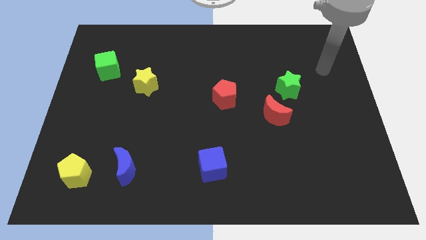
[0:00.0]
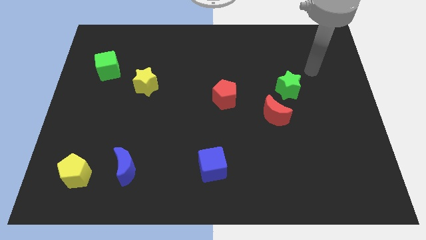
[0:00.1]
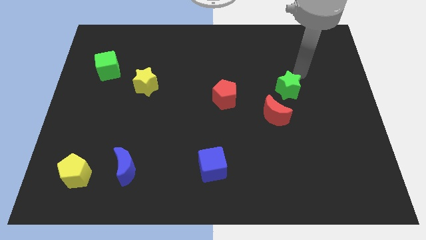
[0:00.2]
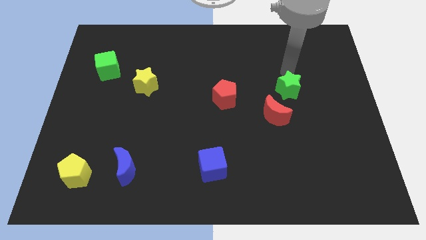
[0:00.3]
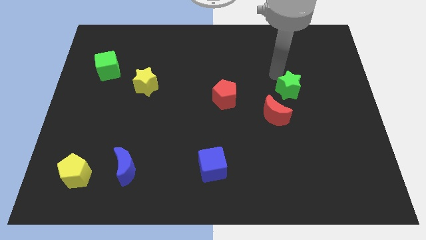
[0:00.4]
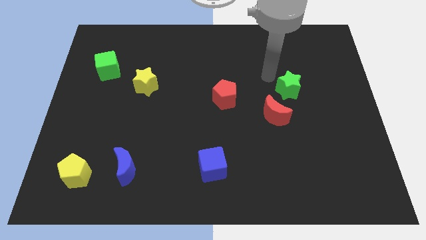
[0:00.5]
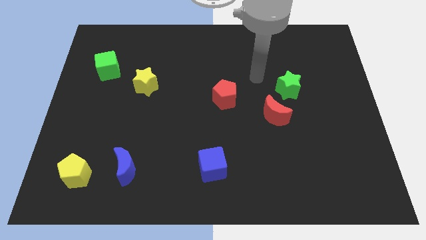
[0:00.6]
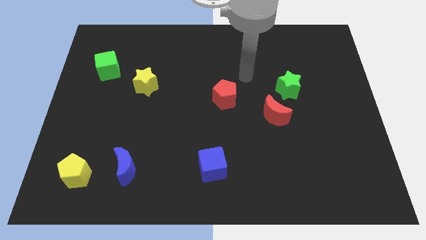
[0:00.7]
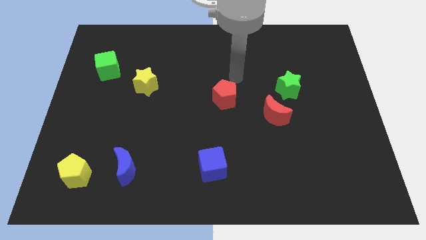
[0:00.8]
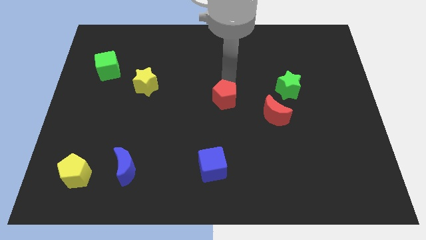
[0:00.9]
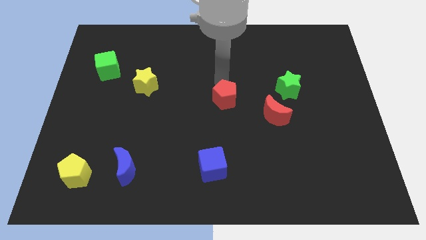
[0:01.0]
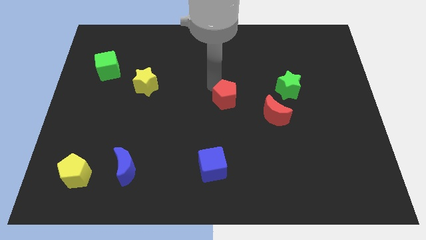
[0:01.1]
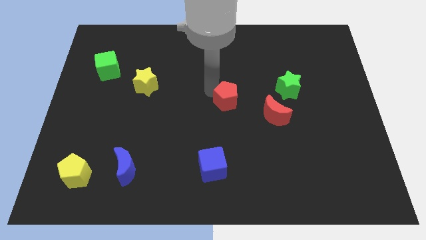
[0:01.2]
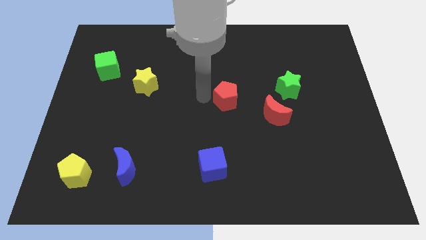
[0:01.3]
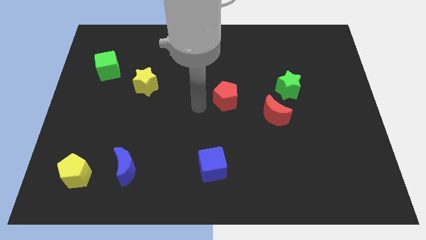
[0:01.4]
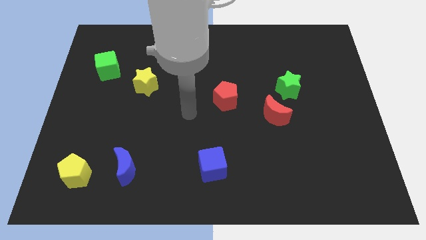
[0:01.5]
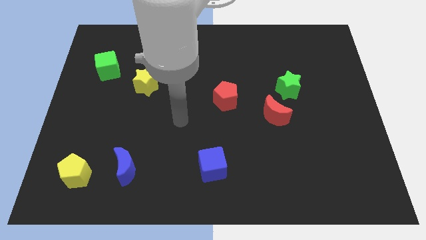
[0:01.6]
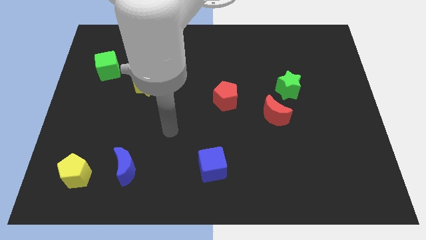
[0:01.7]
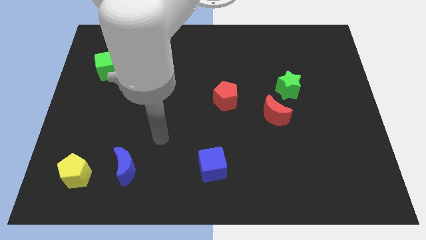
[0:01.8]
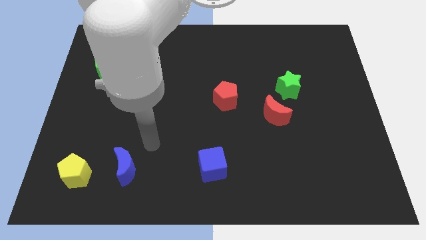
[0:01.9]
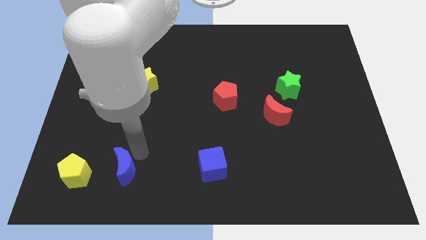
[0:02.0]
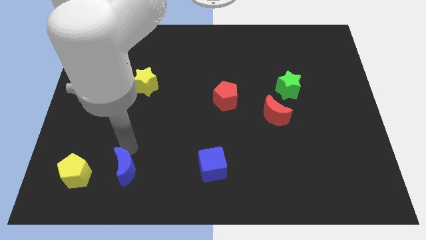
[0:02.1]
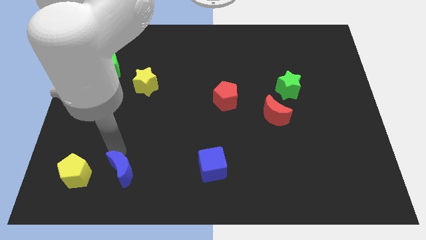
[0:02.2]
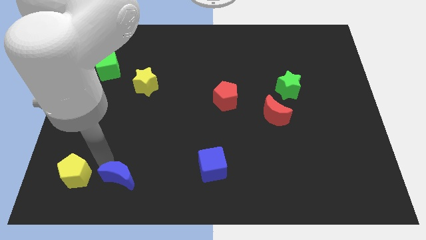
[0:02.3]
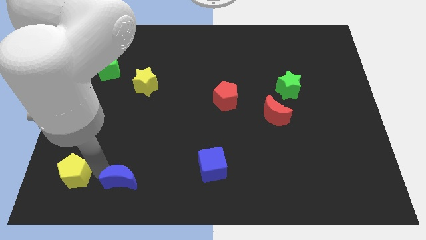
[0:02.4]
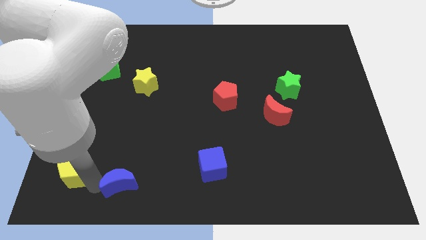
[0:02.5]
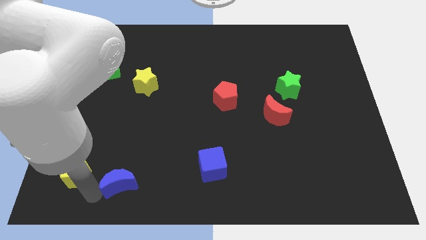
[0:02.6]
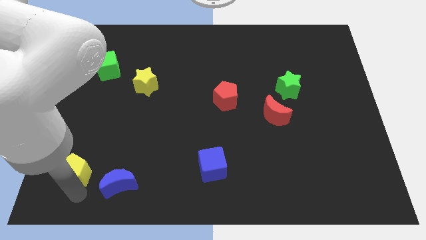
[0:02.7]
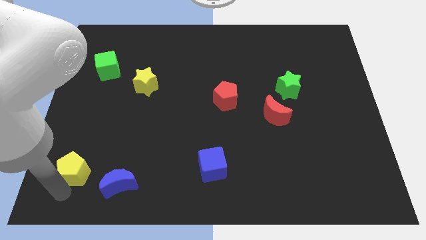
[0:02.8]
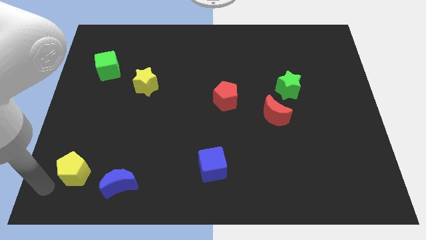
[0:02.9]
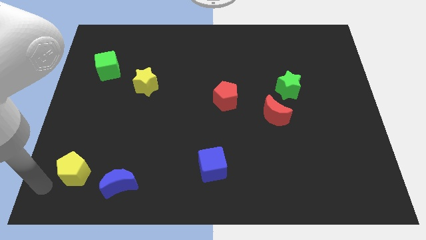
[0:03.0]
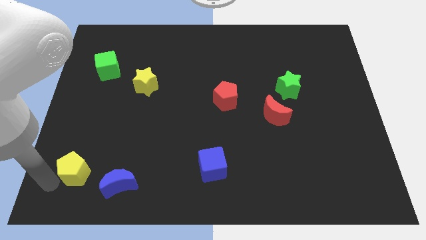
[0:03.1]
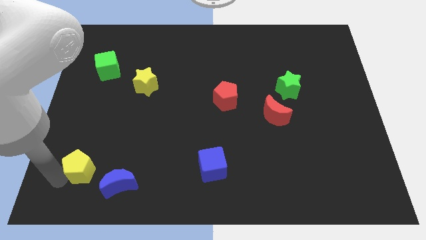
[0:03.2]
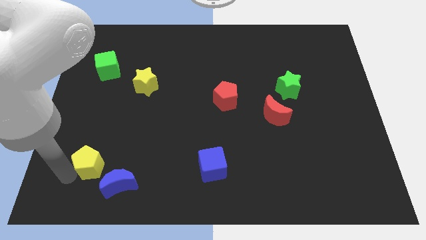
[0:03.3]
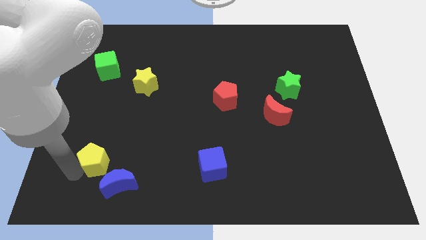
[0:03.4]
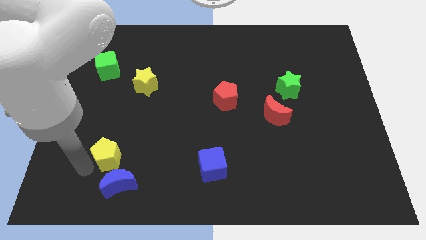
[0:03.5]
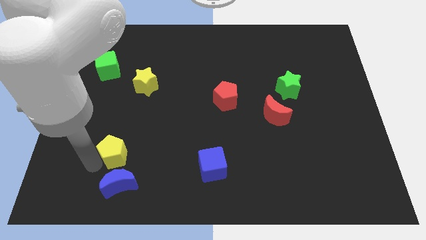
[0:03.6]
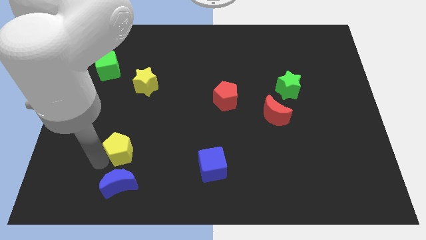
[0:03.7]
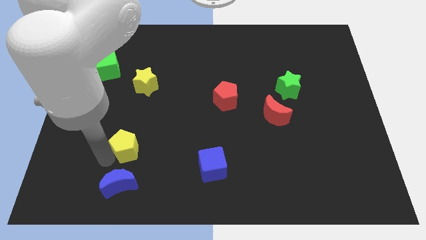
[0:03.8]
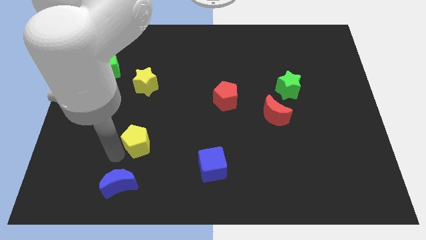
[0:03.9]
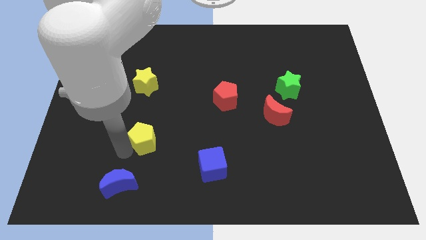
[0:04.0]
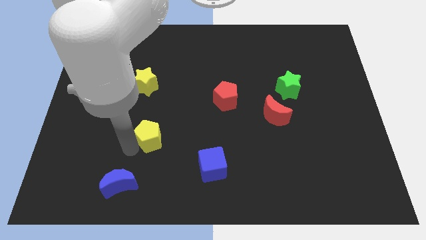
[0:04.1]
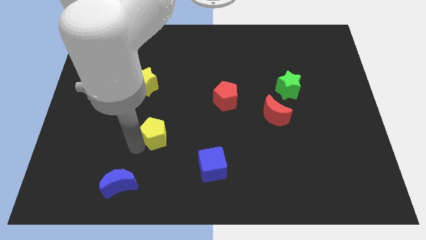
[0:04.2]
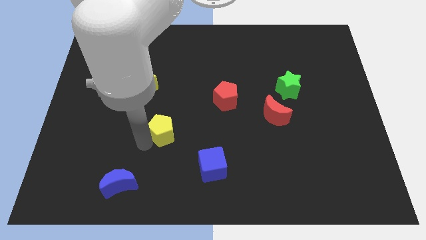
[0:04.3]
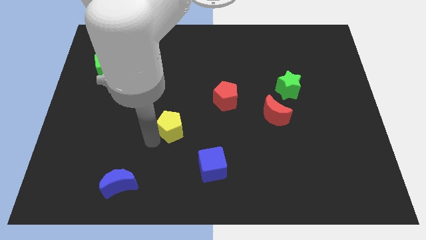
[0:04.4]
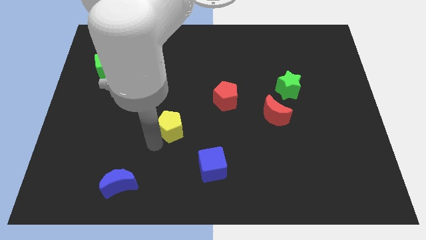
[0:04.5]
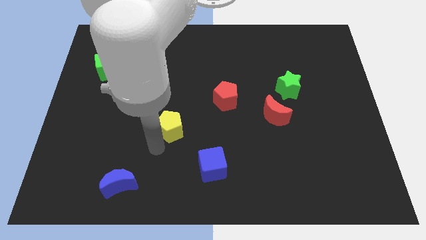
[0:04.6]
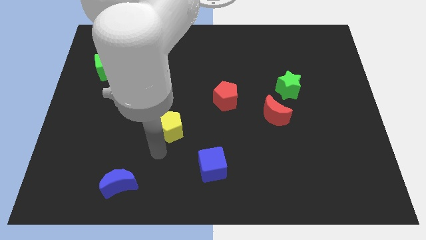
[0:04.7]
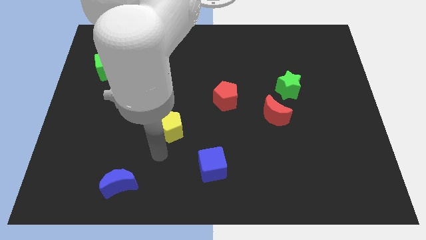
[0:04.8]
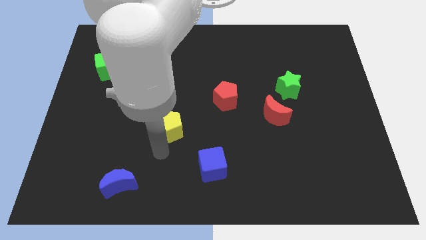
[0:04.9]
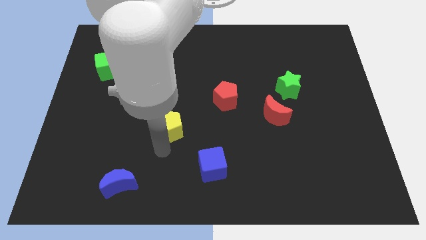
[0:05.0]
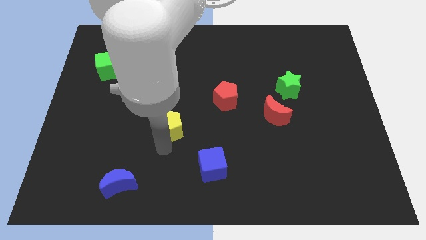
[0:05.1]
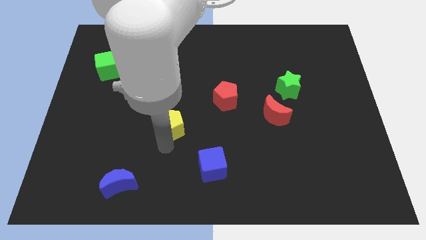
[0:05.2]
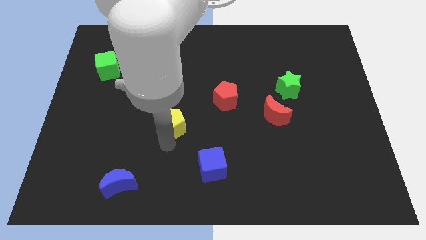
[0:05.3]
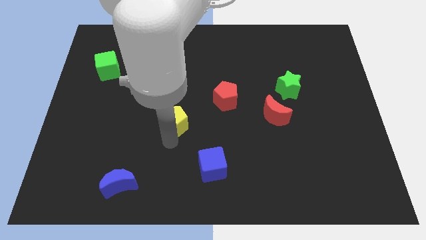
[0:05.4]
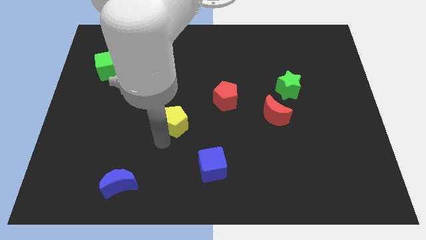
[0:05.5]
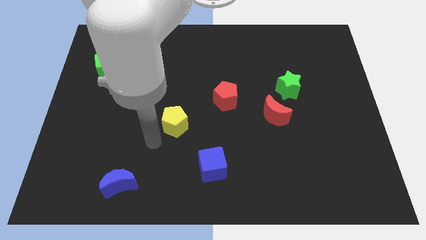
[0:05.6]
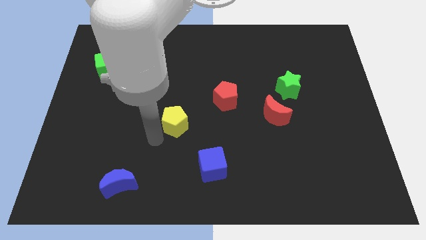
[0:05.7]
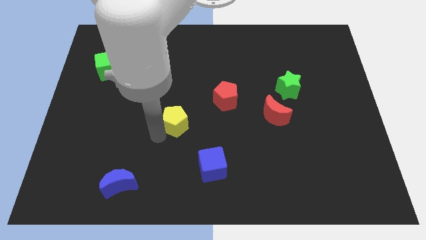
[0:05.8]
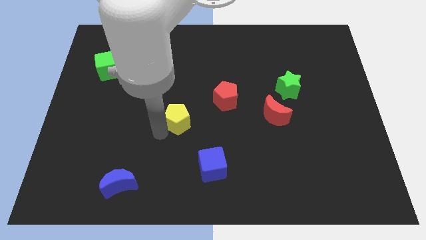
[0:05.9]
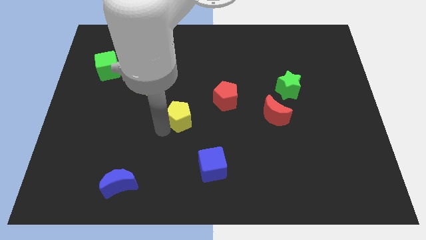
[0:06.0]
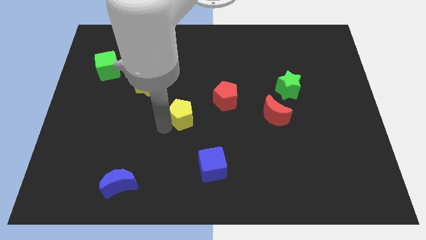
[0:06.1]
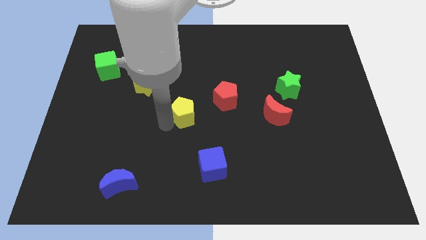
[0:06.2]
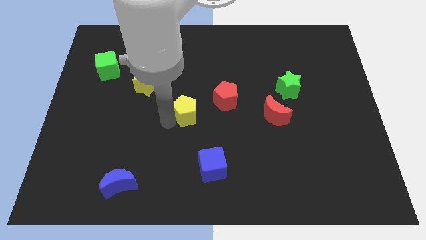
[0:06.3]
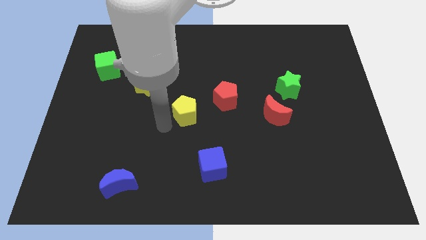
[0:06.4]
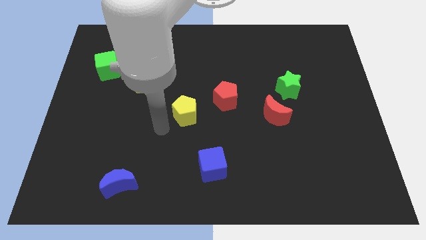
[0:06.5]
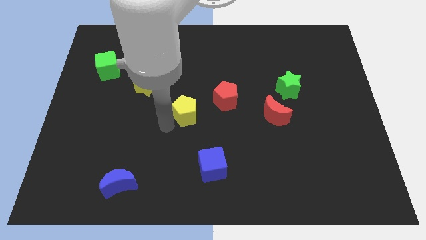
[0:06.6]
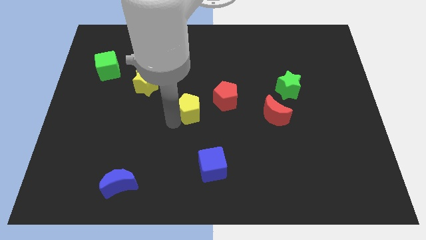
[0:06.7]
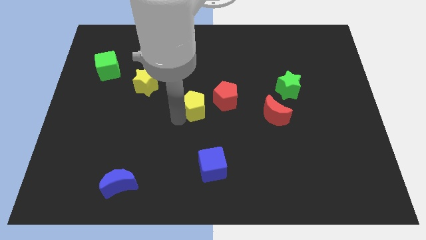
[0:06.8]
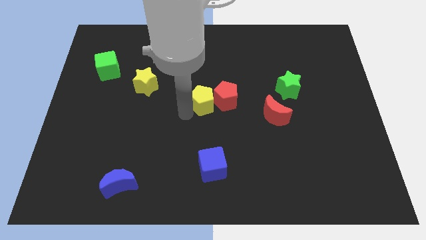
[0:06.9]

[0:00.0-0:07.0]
push the yellow pentagon close to the red pentagon

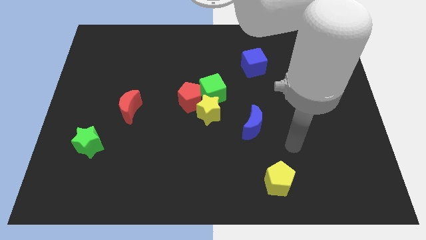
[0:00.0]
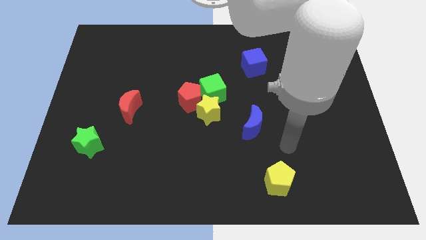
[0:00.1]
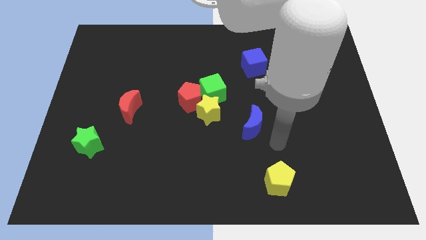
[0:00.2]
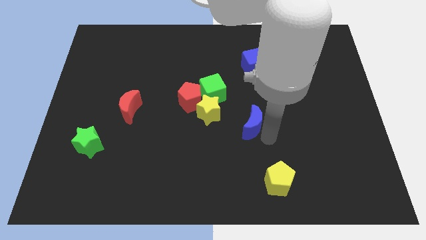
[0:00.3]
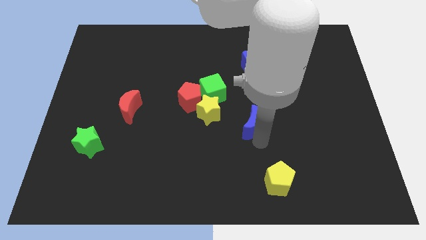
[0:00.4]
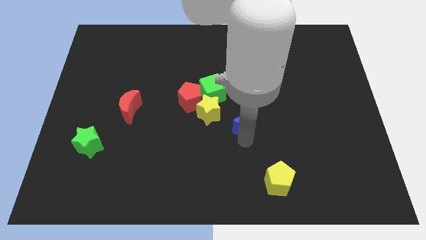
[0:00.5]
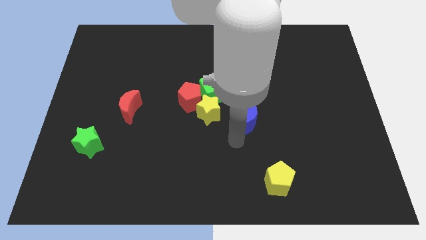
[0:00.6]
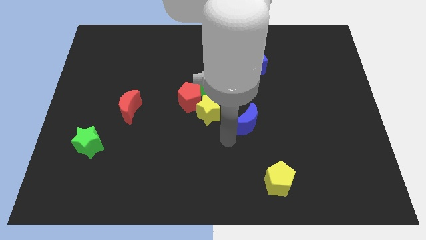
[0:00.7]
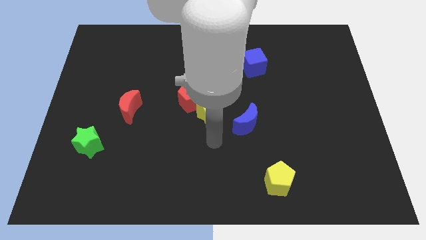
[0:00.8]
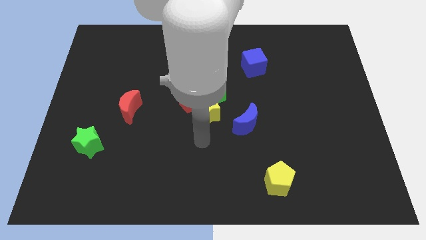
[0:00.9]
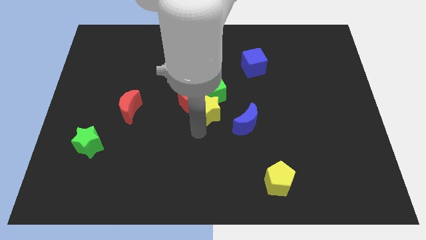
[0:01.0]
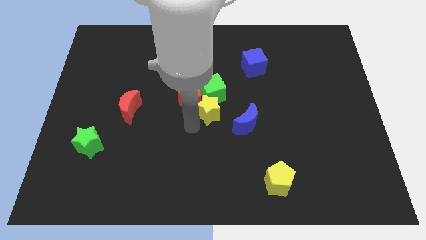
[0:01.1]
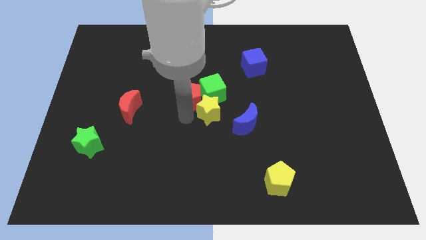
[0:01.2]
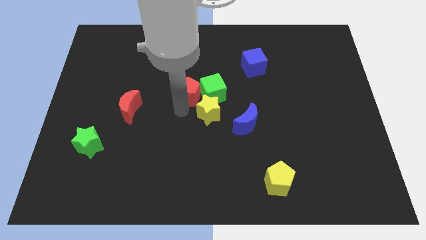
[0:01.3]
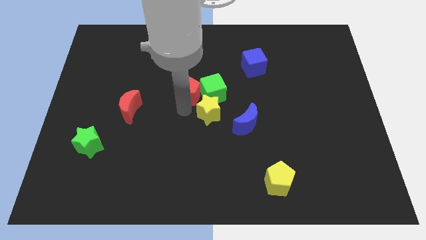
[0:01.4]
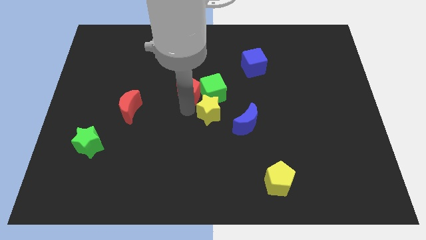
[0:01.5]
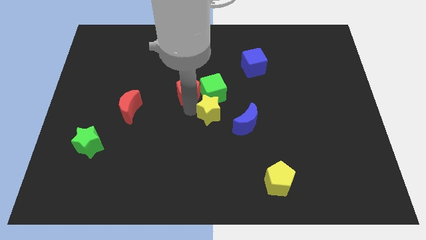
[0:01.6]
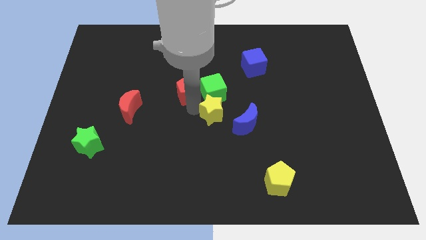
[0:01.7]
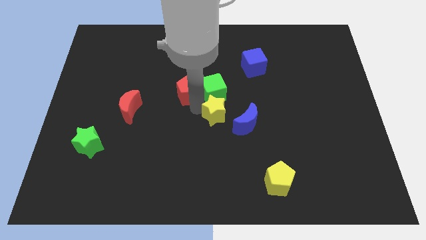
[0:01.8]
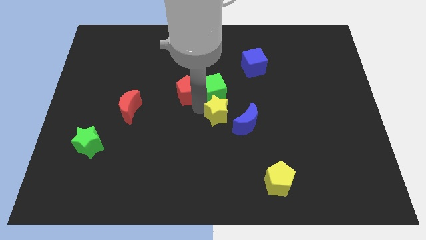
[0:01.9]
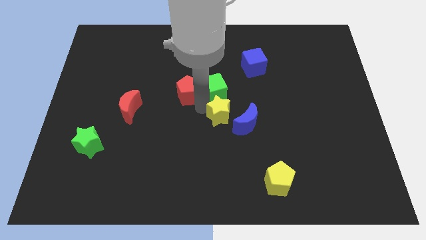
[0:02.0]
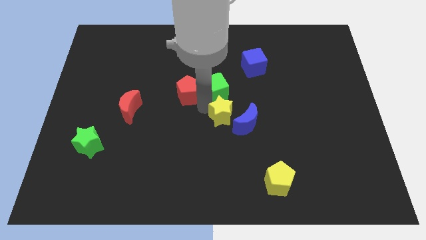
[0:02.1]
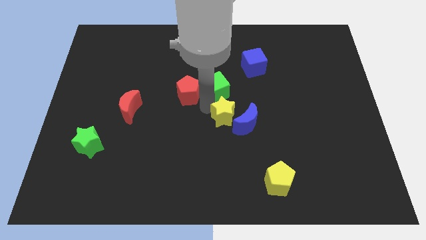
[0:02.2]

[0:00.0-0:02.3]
push the yellow star next to the blue moon
